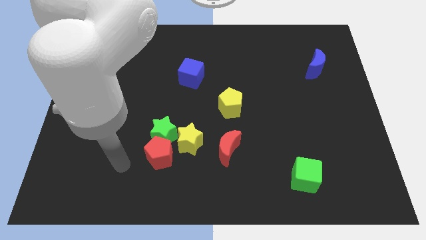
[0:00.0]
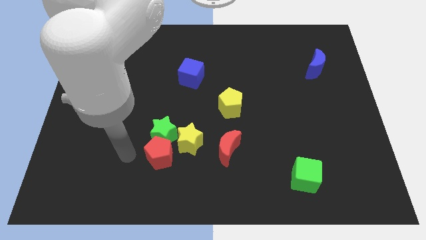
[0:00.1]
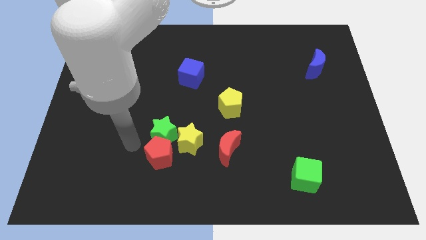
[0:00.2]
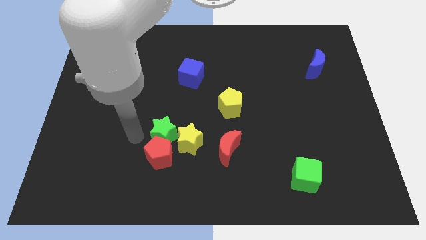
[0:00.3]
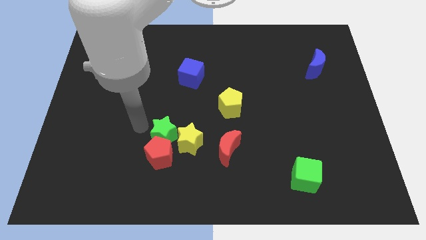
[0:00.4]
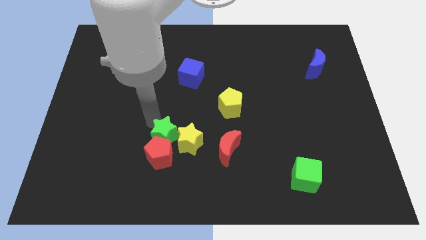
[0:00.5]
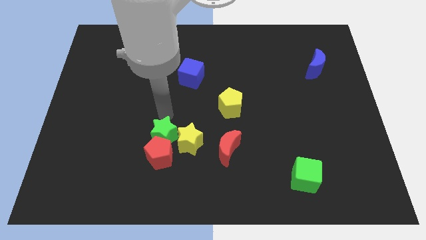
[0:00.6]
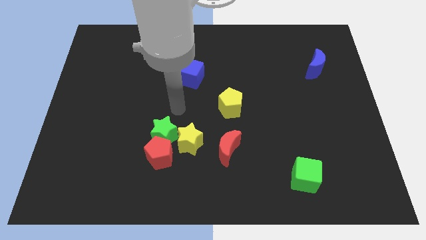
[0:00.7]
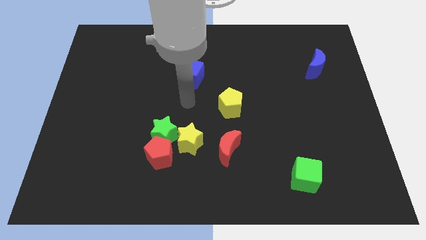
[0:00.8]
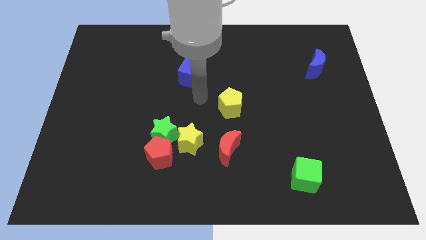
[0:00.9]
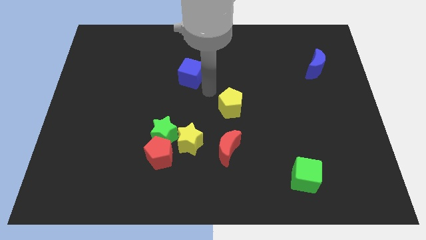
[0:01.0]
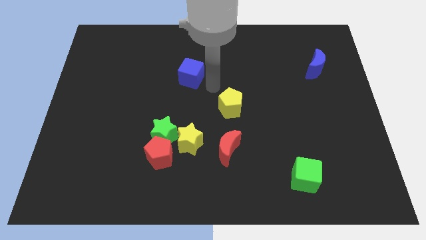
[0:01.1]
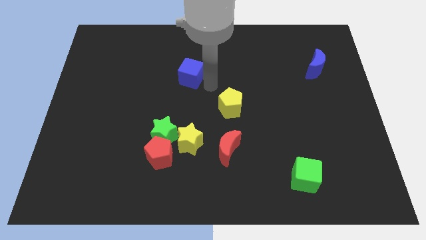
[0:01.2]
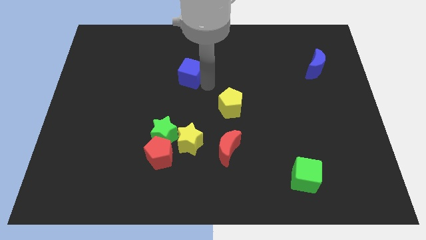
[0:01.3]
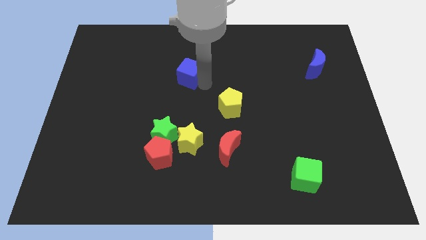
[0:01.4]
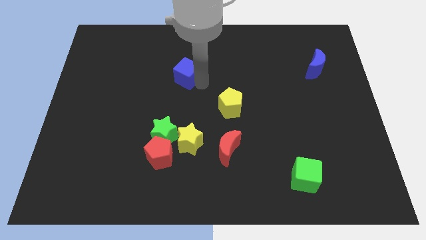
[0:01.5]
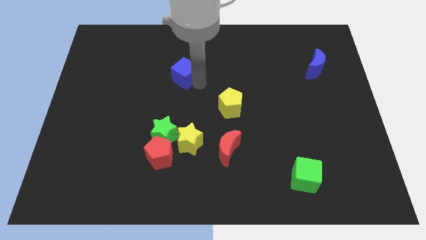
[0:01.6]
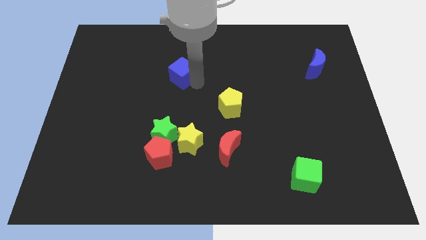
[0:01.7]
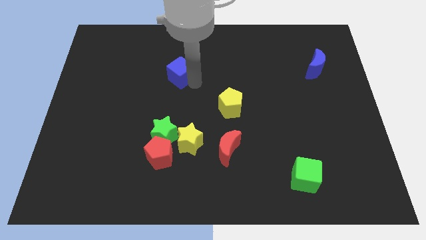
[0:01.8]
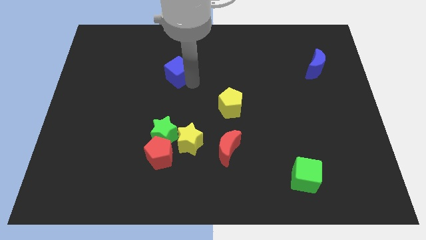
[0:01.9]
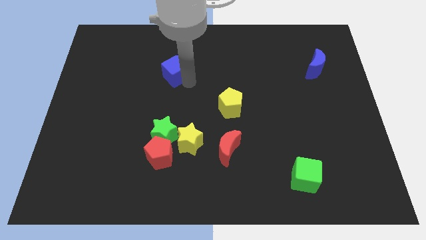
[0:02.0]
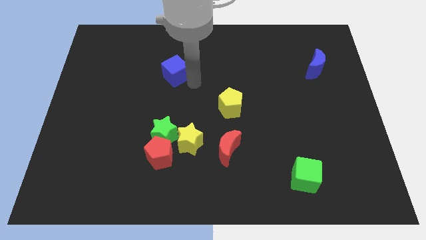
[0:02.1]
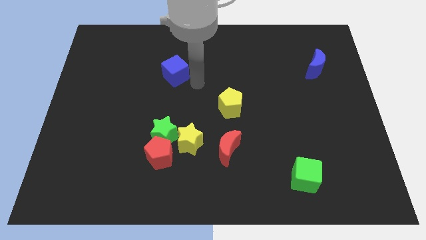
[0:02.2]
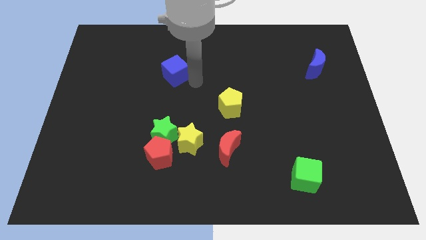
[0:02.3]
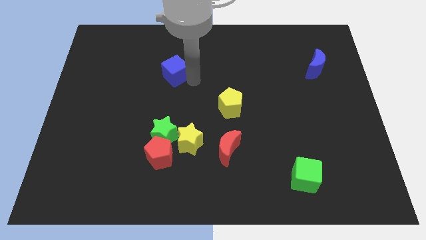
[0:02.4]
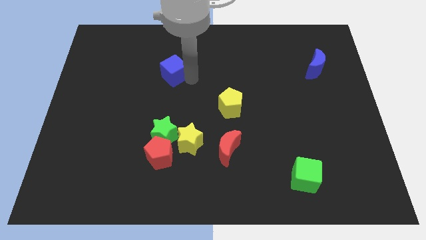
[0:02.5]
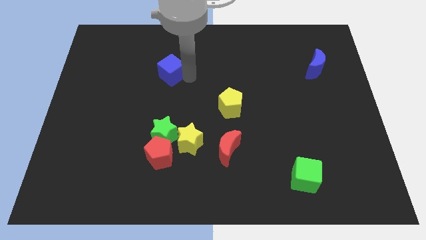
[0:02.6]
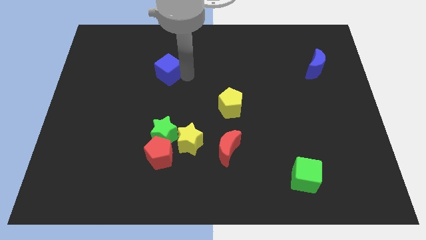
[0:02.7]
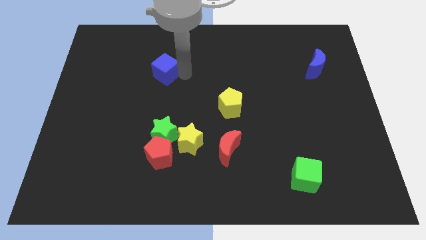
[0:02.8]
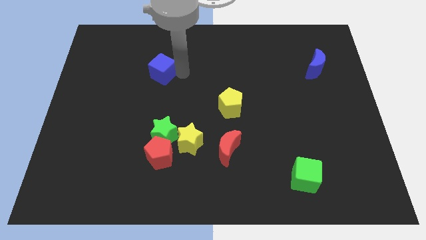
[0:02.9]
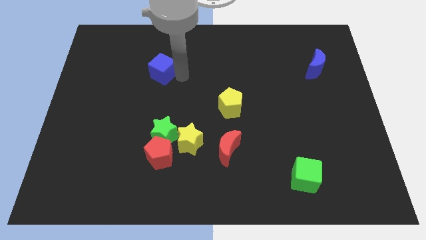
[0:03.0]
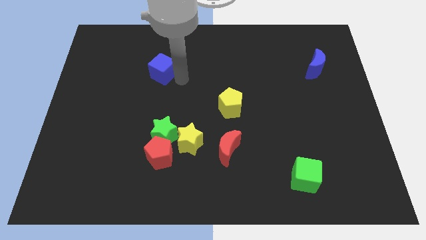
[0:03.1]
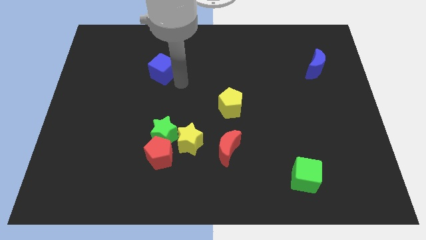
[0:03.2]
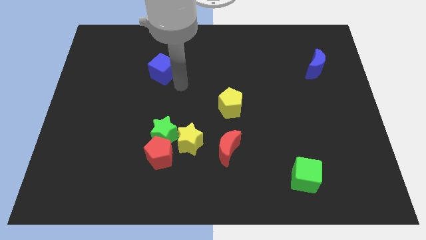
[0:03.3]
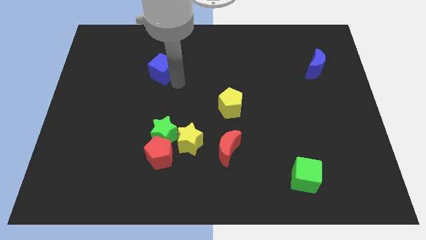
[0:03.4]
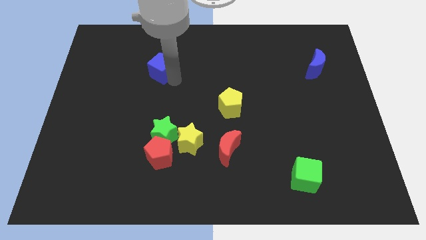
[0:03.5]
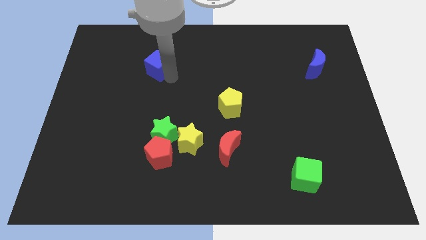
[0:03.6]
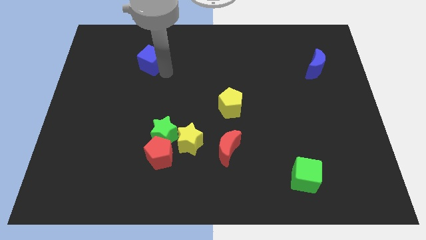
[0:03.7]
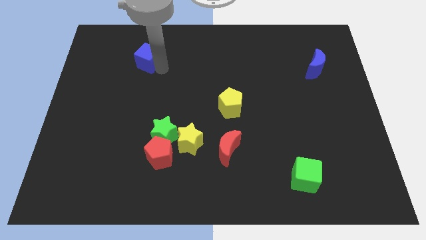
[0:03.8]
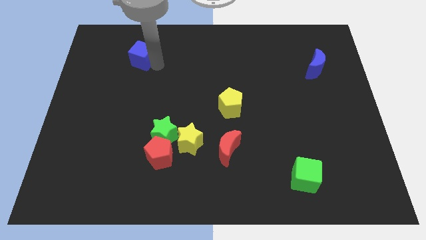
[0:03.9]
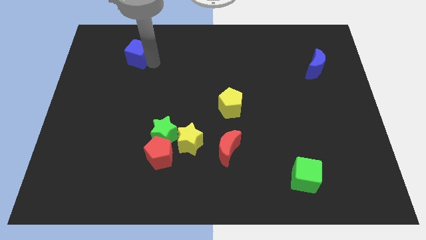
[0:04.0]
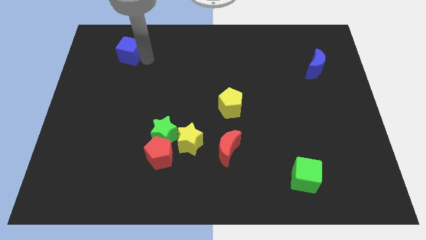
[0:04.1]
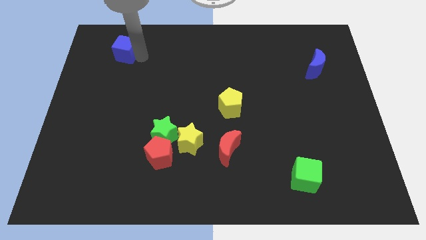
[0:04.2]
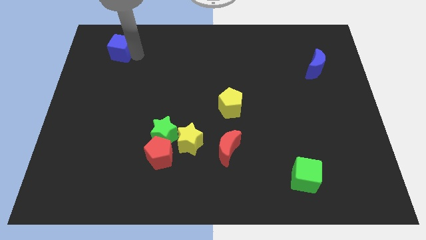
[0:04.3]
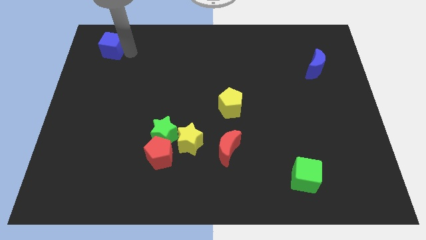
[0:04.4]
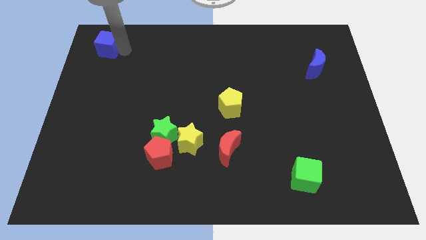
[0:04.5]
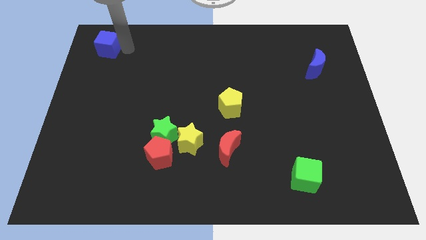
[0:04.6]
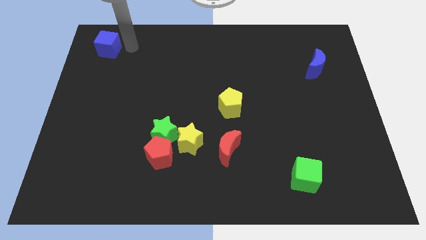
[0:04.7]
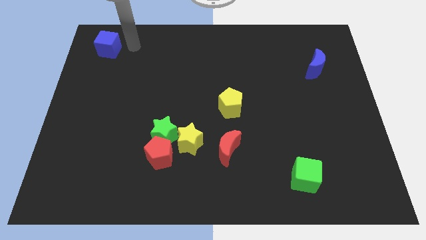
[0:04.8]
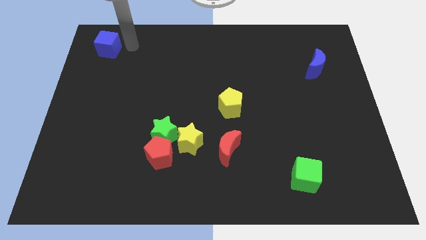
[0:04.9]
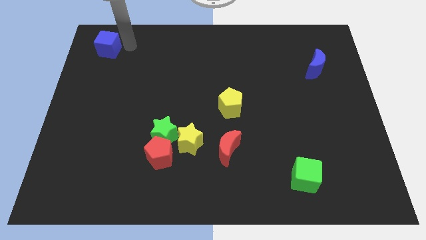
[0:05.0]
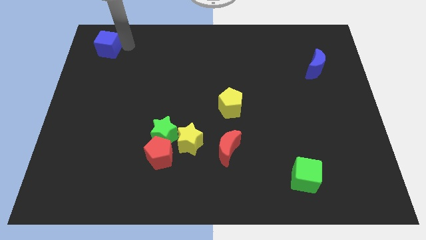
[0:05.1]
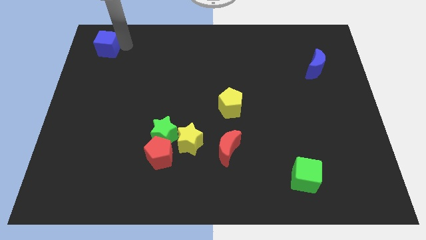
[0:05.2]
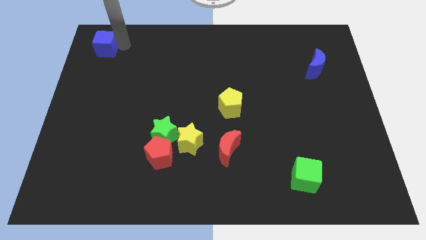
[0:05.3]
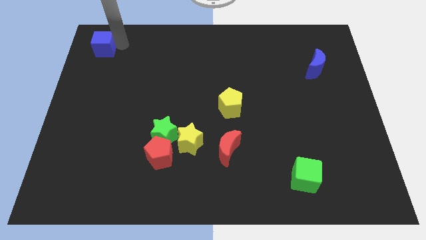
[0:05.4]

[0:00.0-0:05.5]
push the blue cube to the upper left corner
